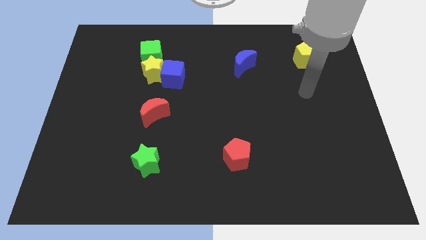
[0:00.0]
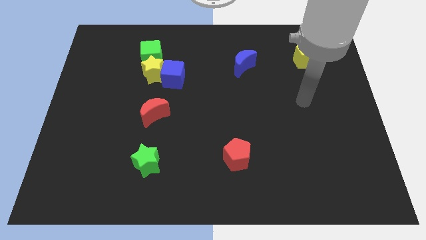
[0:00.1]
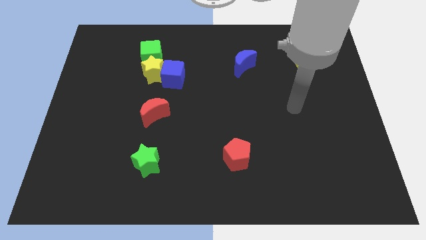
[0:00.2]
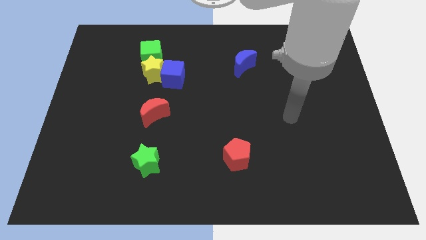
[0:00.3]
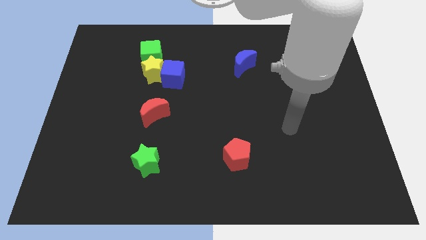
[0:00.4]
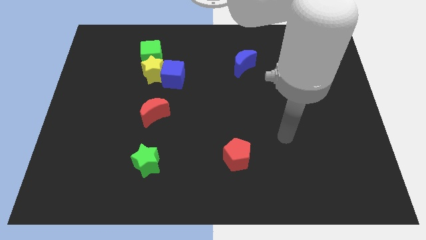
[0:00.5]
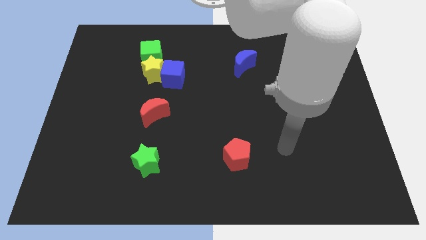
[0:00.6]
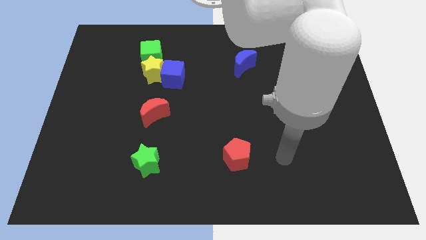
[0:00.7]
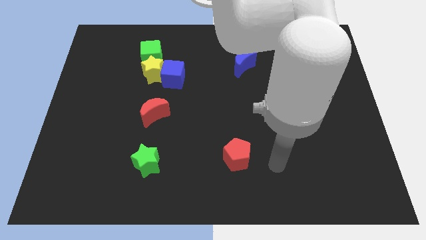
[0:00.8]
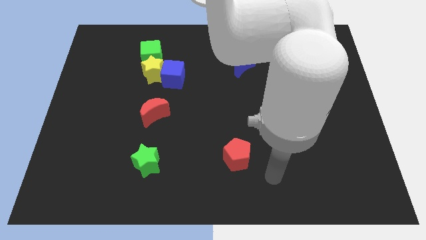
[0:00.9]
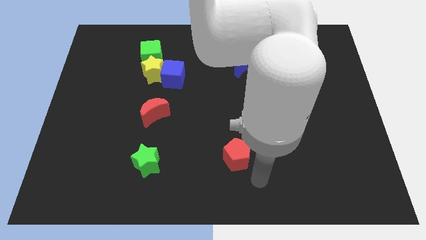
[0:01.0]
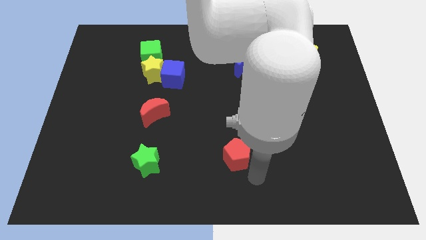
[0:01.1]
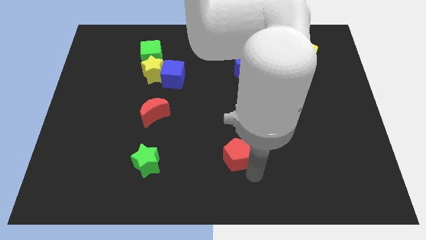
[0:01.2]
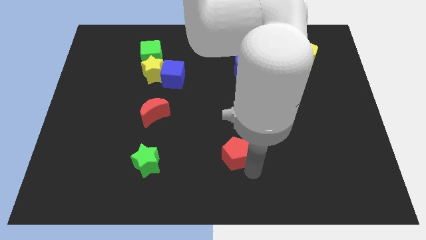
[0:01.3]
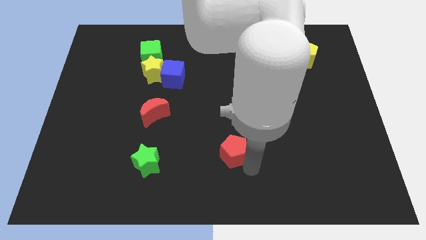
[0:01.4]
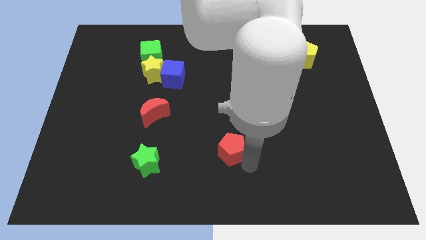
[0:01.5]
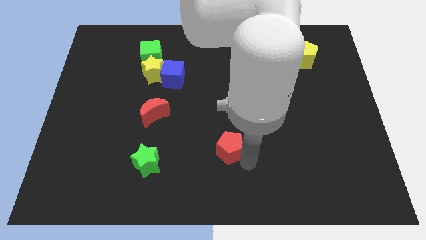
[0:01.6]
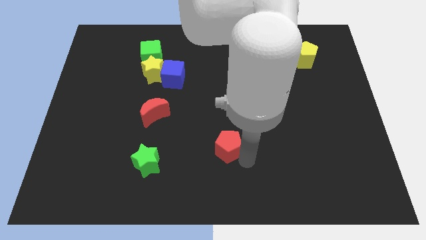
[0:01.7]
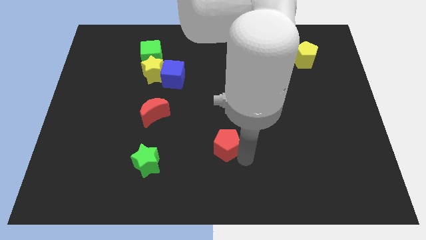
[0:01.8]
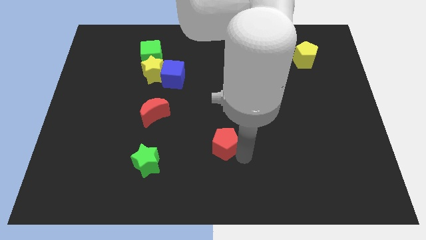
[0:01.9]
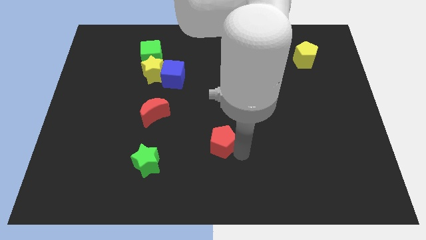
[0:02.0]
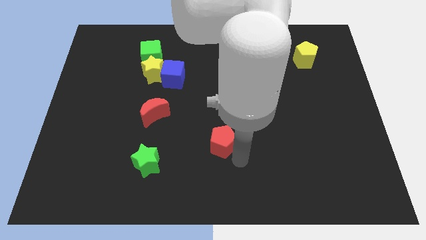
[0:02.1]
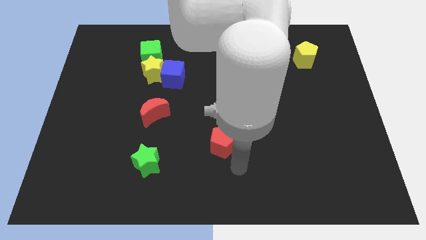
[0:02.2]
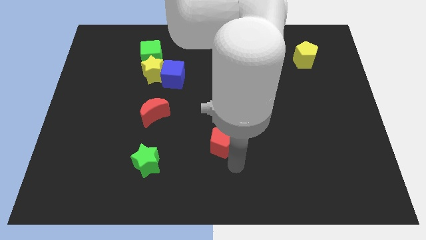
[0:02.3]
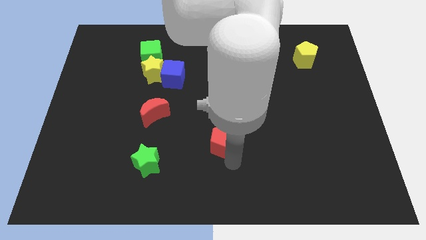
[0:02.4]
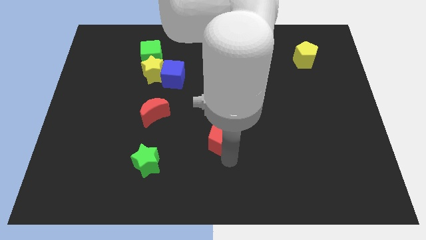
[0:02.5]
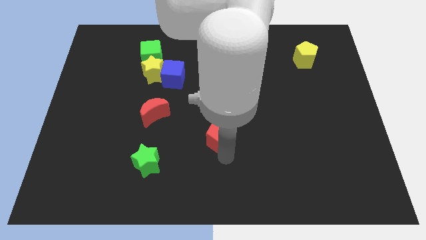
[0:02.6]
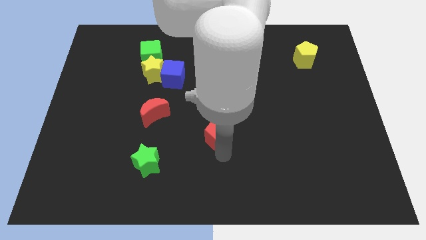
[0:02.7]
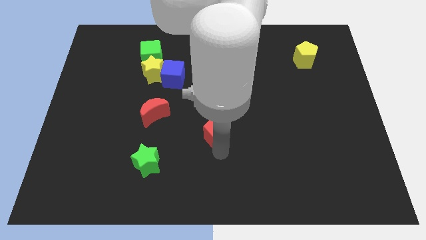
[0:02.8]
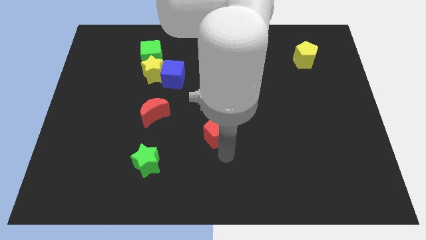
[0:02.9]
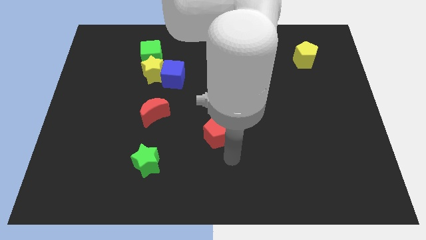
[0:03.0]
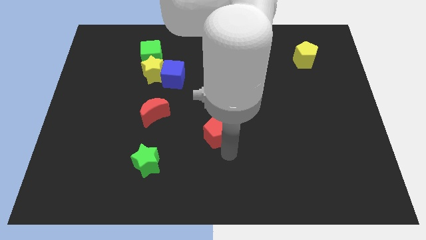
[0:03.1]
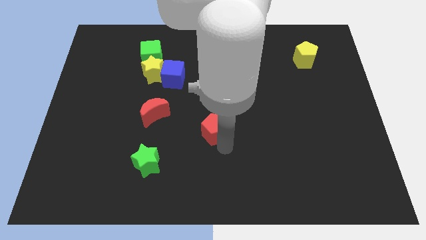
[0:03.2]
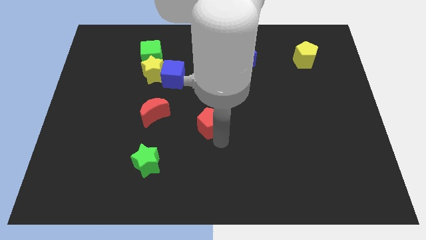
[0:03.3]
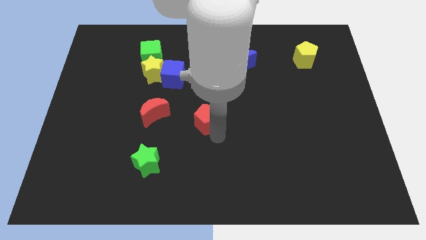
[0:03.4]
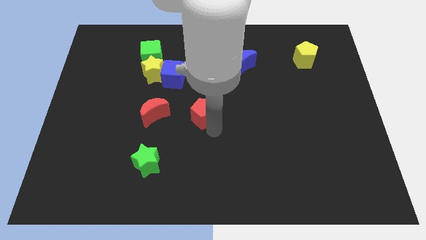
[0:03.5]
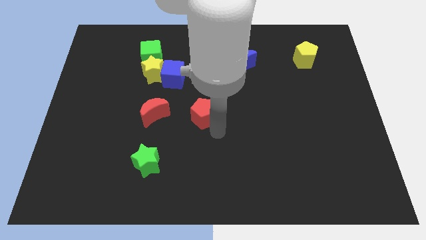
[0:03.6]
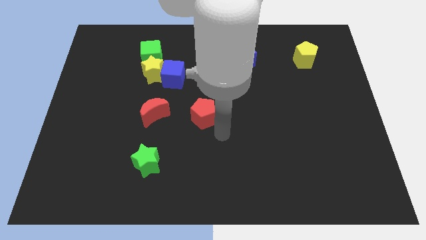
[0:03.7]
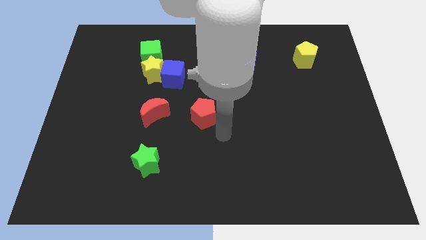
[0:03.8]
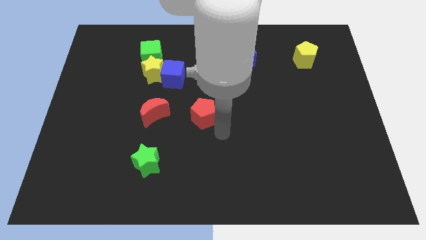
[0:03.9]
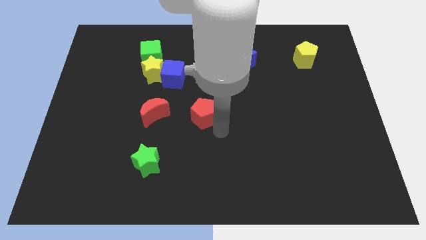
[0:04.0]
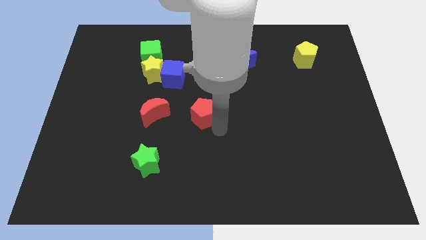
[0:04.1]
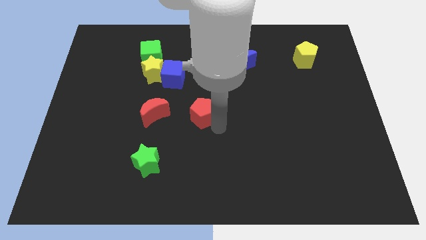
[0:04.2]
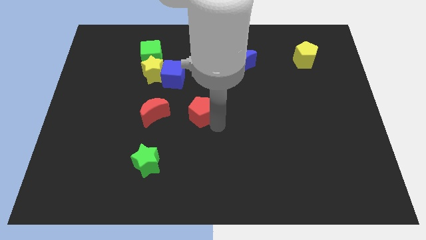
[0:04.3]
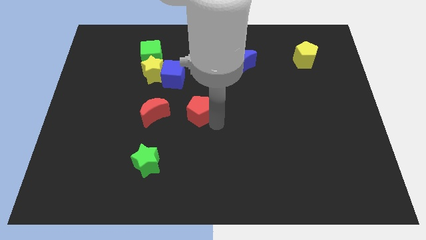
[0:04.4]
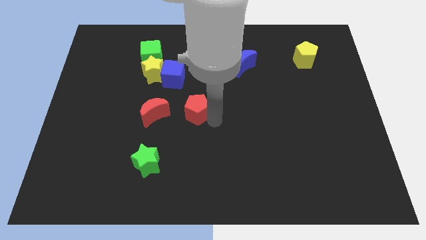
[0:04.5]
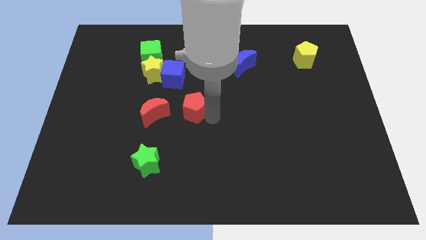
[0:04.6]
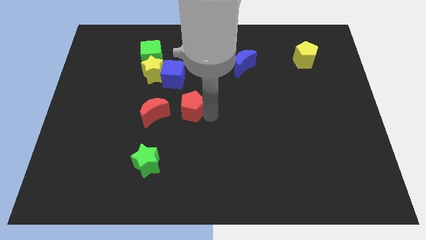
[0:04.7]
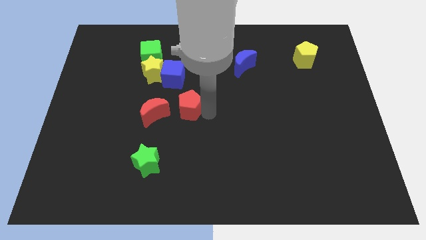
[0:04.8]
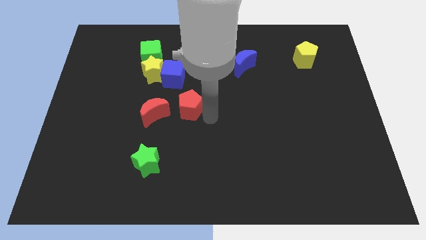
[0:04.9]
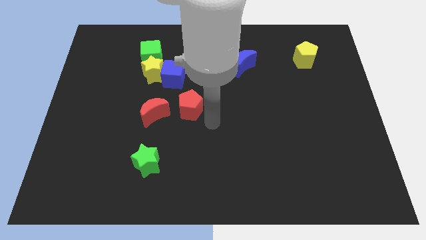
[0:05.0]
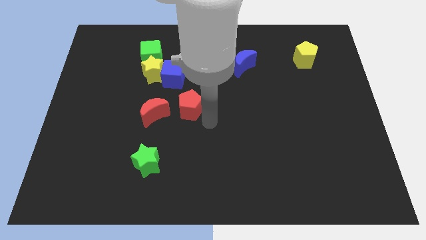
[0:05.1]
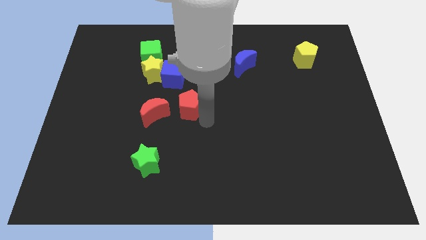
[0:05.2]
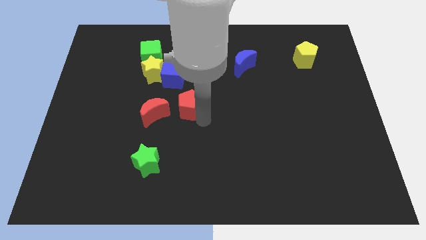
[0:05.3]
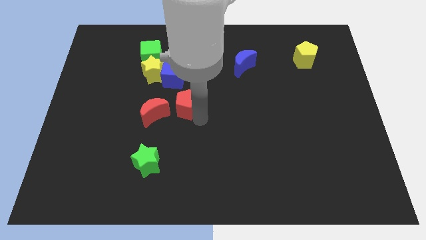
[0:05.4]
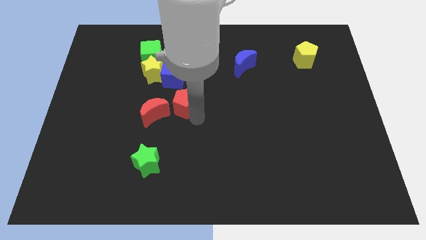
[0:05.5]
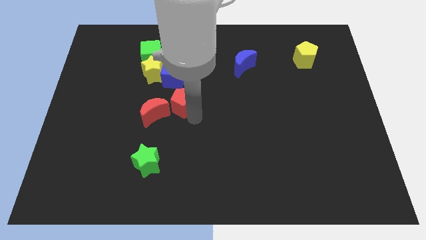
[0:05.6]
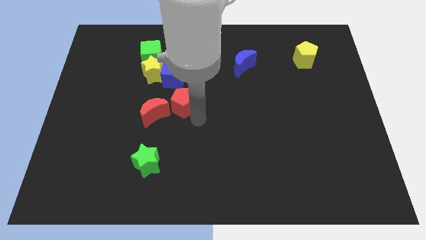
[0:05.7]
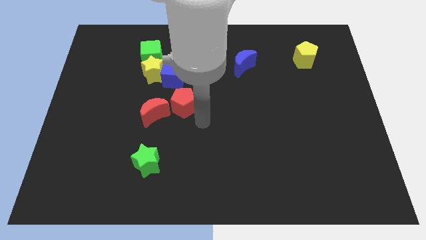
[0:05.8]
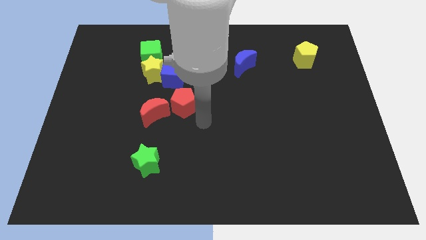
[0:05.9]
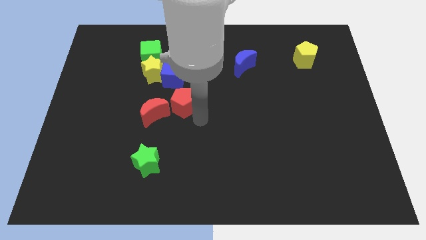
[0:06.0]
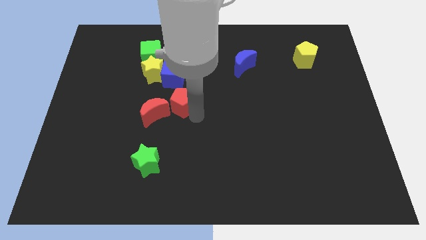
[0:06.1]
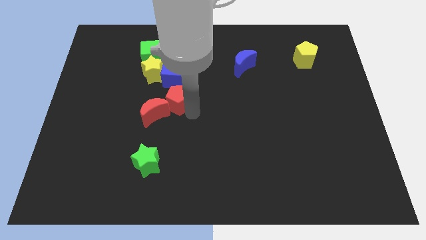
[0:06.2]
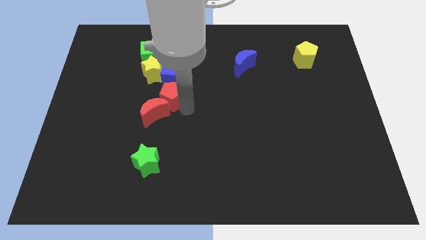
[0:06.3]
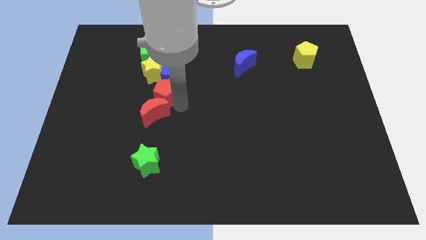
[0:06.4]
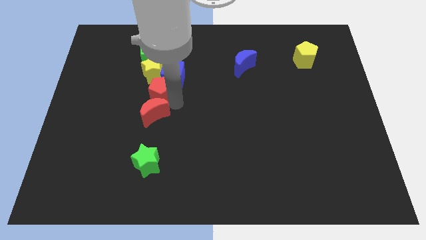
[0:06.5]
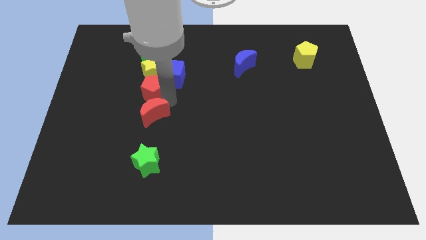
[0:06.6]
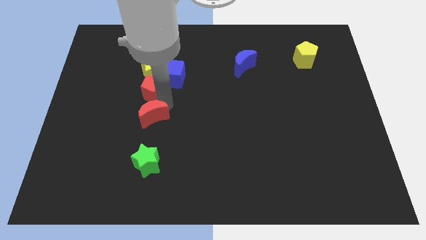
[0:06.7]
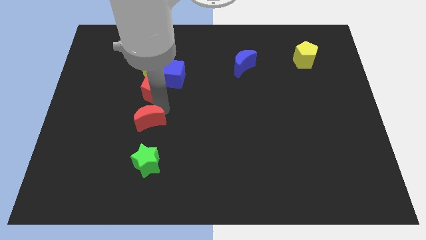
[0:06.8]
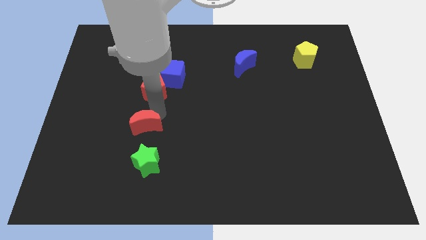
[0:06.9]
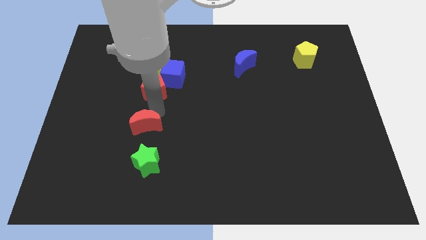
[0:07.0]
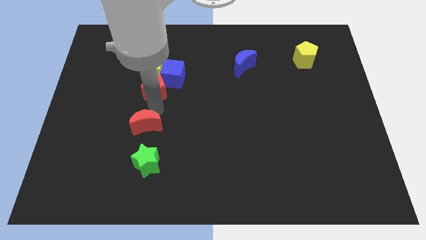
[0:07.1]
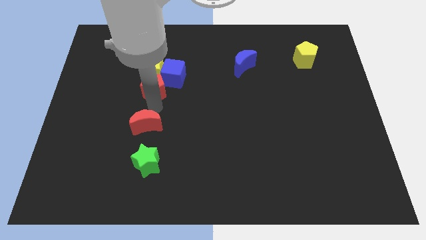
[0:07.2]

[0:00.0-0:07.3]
put the red pentagon towards the yellow star

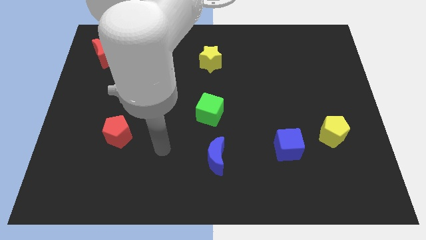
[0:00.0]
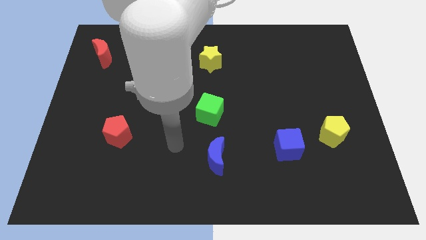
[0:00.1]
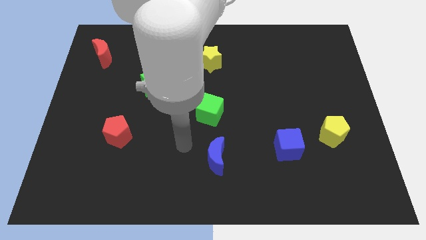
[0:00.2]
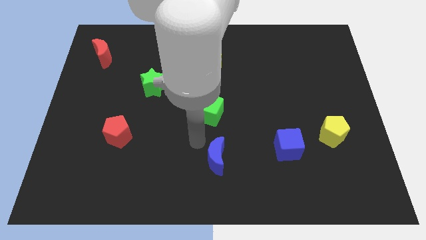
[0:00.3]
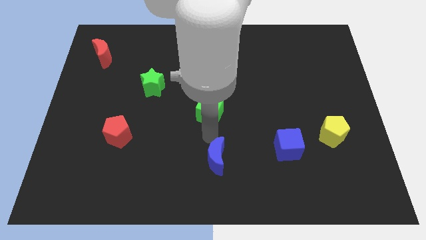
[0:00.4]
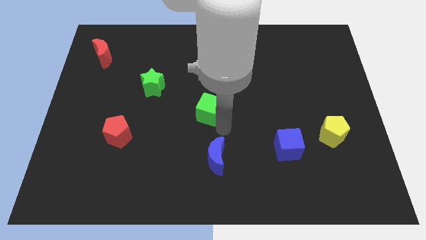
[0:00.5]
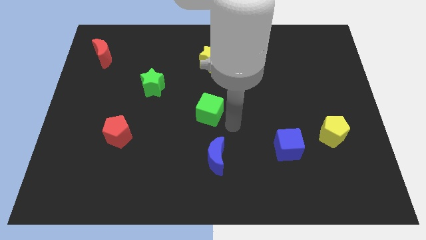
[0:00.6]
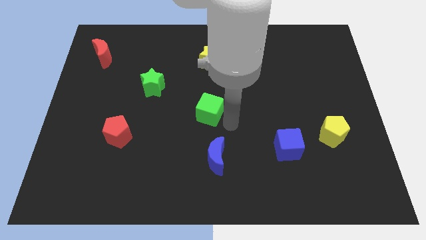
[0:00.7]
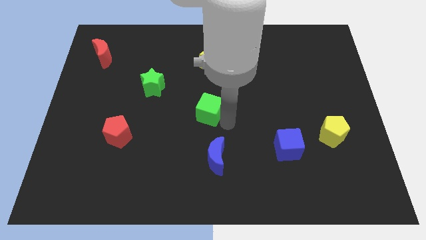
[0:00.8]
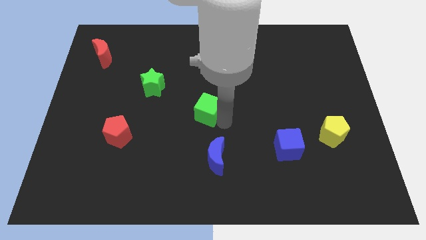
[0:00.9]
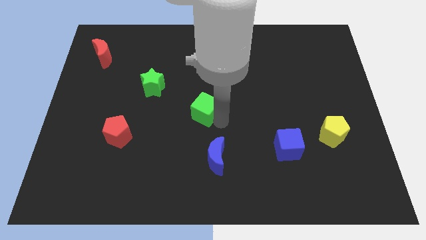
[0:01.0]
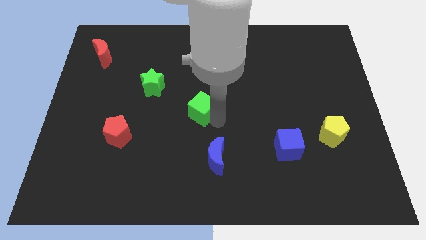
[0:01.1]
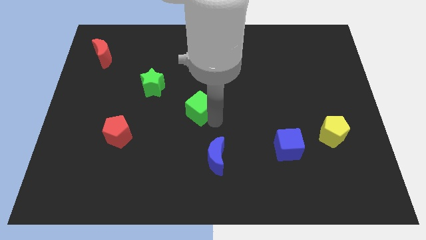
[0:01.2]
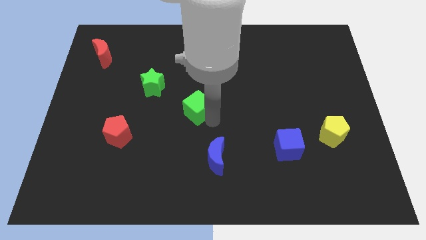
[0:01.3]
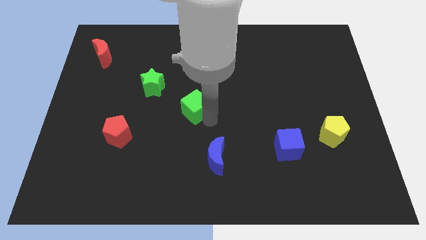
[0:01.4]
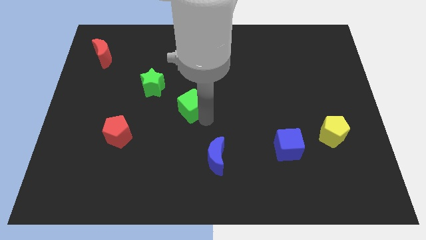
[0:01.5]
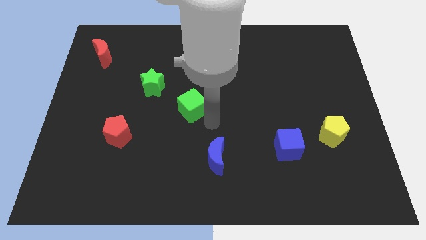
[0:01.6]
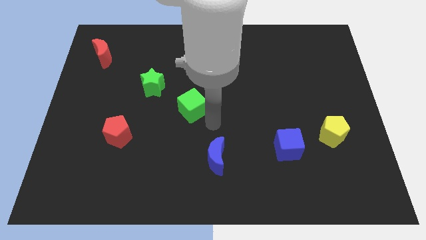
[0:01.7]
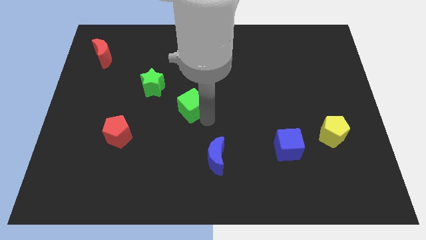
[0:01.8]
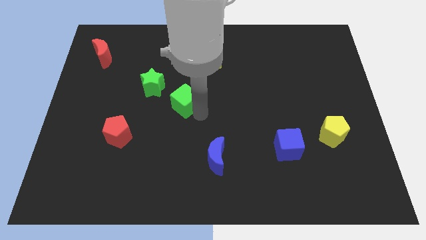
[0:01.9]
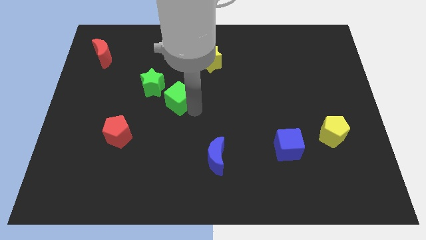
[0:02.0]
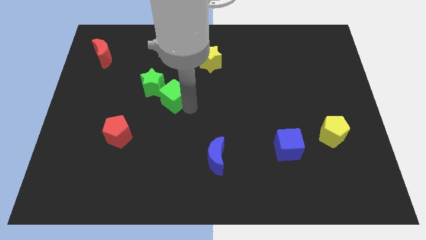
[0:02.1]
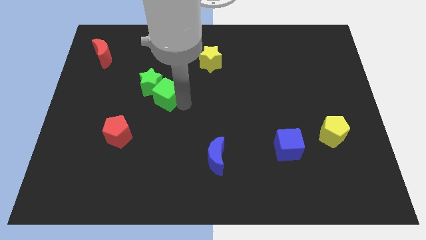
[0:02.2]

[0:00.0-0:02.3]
put the green cube next to the green star
